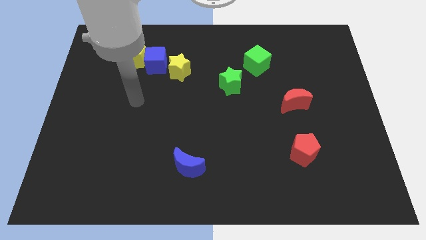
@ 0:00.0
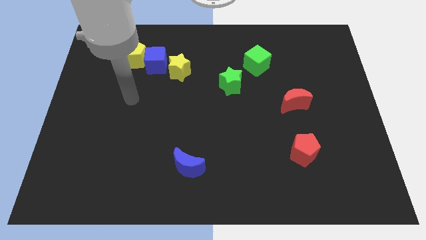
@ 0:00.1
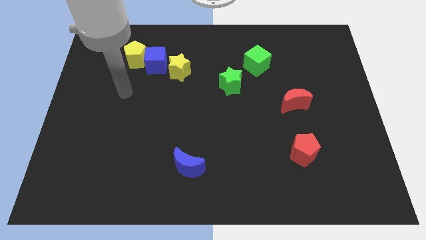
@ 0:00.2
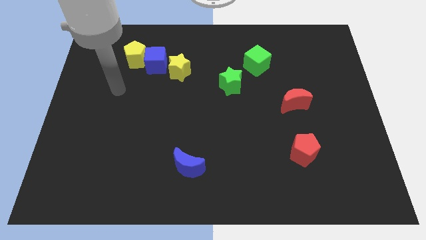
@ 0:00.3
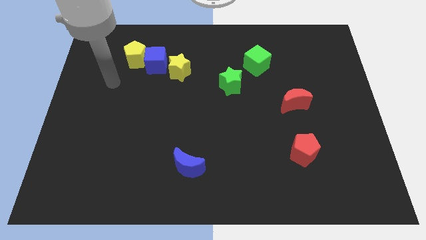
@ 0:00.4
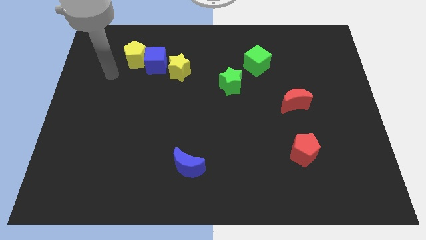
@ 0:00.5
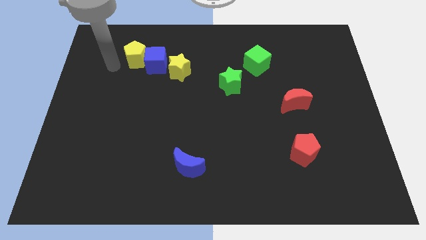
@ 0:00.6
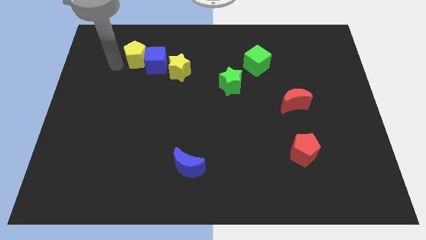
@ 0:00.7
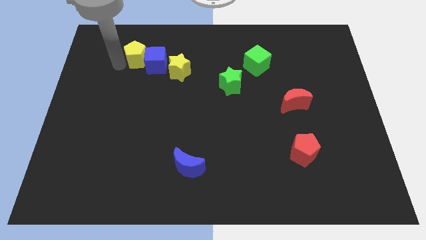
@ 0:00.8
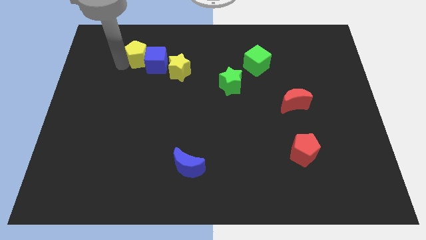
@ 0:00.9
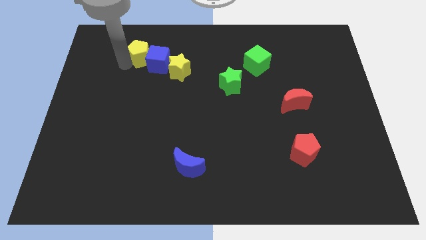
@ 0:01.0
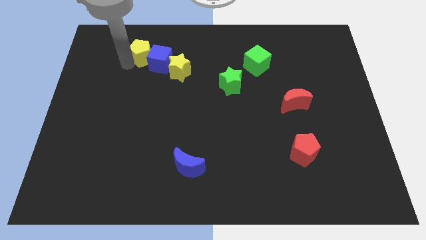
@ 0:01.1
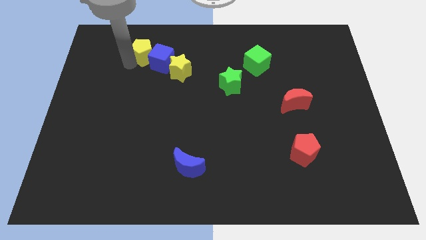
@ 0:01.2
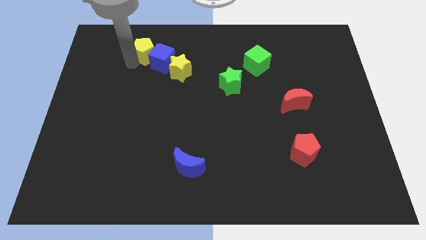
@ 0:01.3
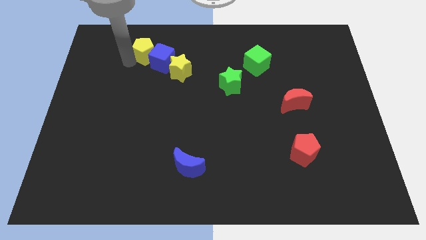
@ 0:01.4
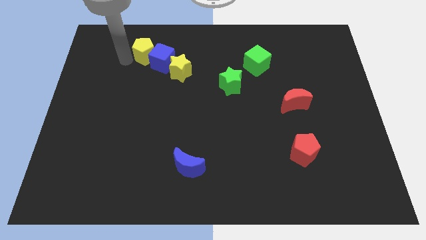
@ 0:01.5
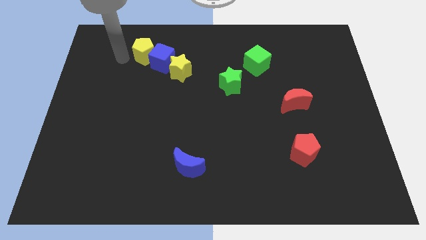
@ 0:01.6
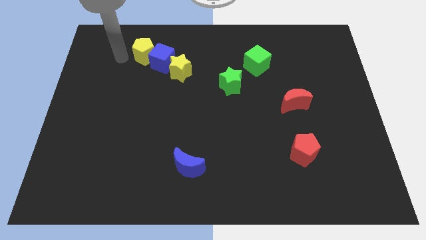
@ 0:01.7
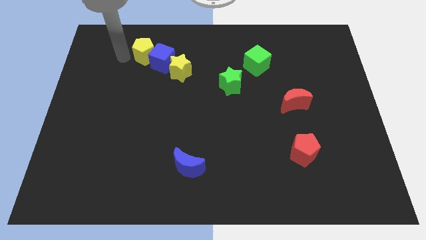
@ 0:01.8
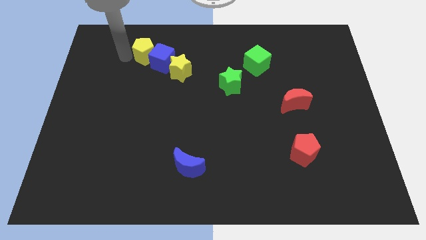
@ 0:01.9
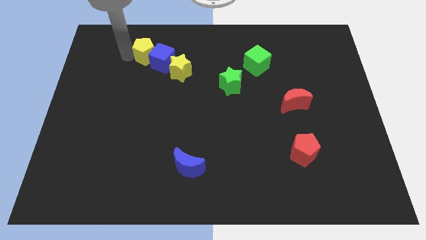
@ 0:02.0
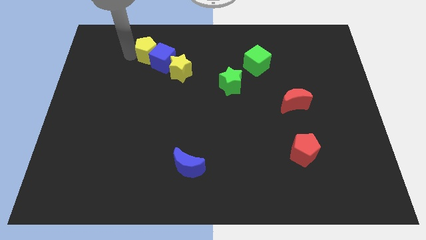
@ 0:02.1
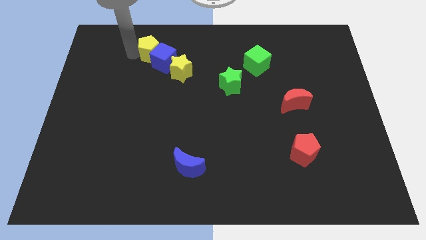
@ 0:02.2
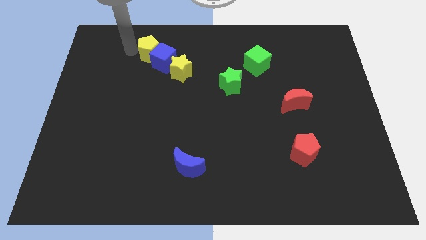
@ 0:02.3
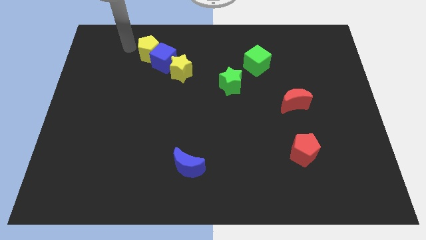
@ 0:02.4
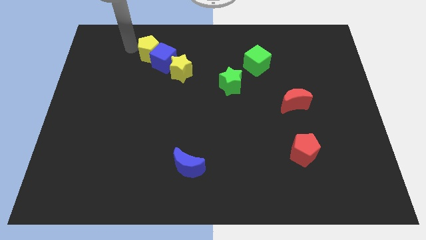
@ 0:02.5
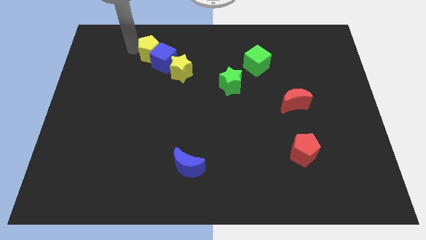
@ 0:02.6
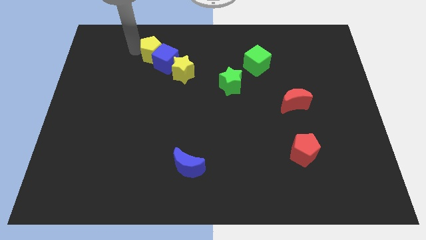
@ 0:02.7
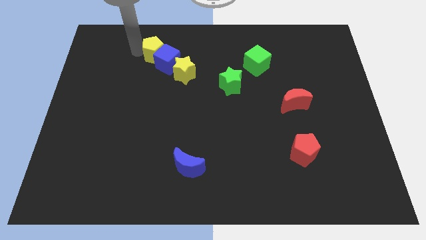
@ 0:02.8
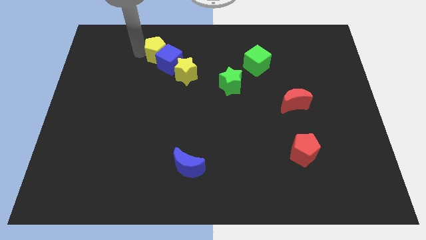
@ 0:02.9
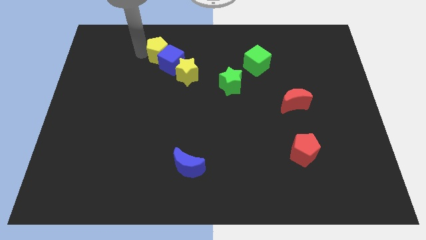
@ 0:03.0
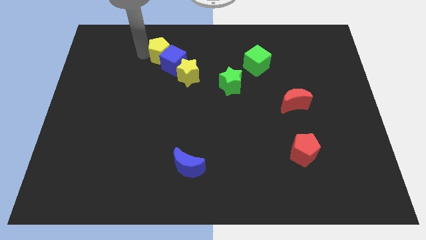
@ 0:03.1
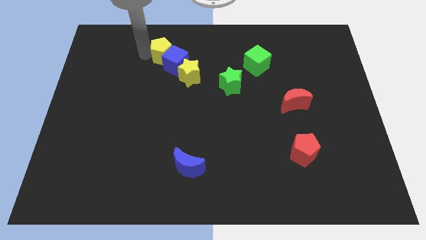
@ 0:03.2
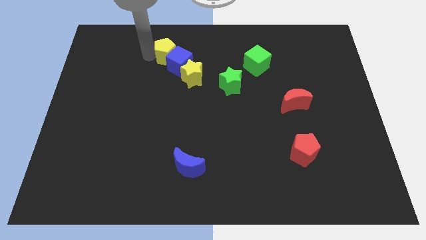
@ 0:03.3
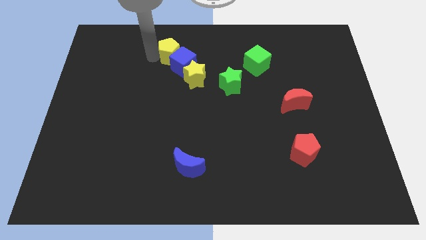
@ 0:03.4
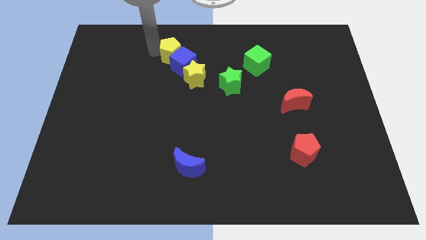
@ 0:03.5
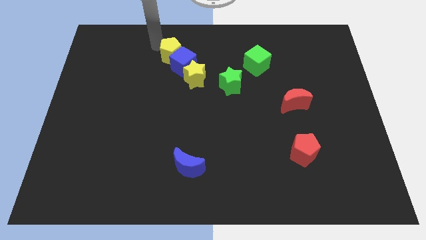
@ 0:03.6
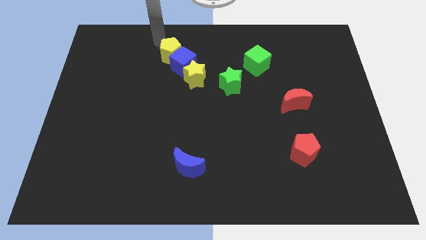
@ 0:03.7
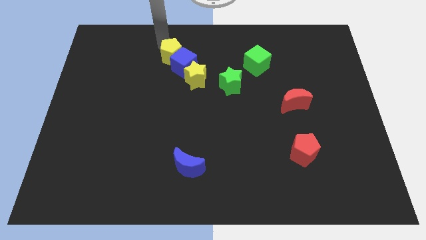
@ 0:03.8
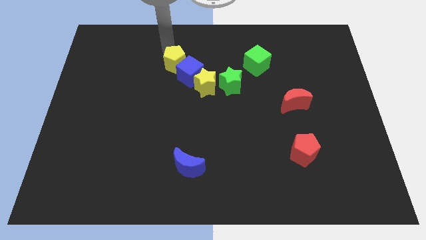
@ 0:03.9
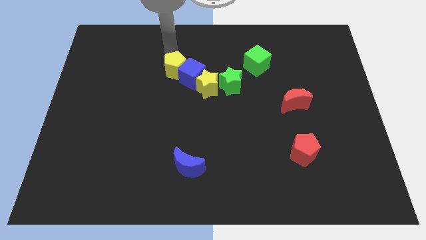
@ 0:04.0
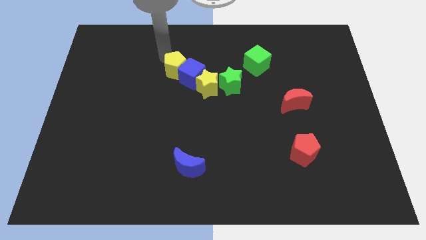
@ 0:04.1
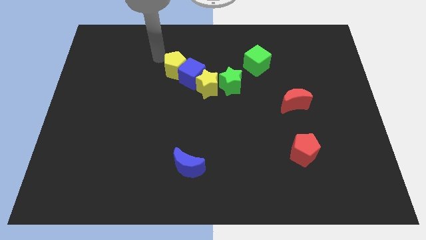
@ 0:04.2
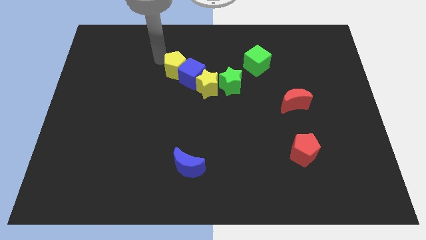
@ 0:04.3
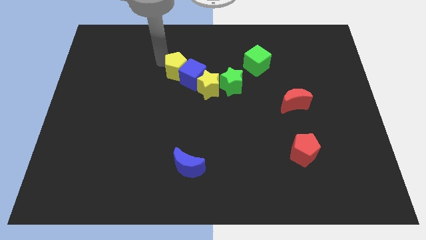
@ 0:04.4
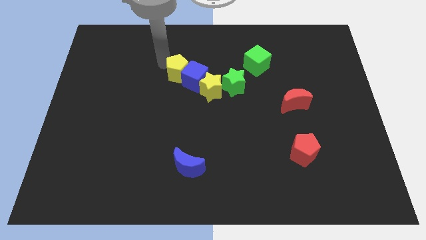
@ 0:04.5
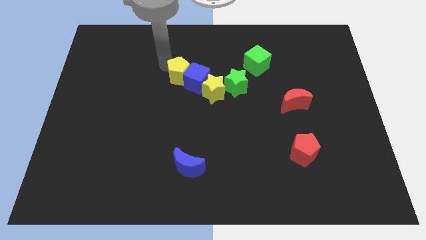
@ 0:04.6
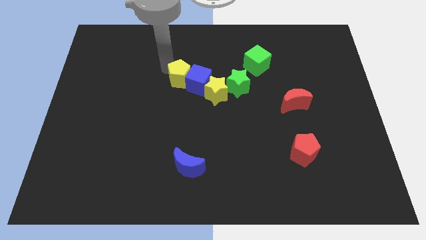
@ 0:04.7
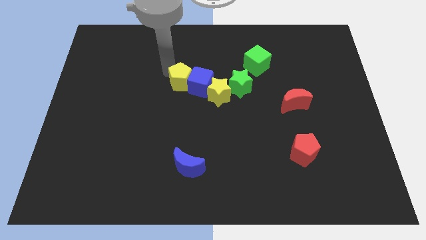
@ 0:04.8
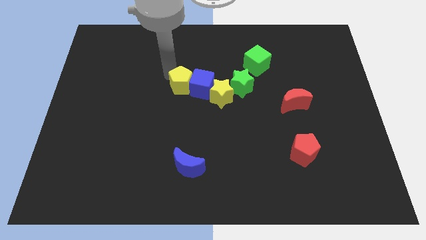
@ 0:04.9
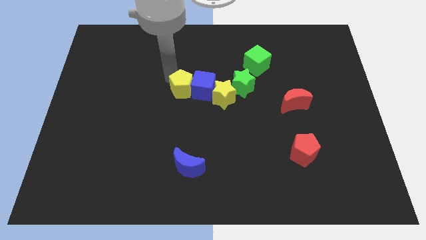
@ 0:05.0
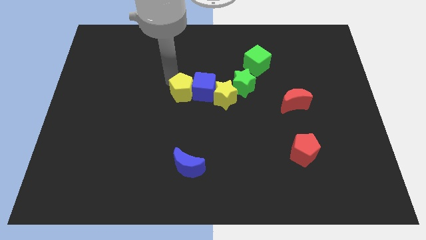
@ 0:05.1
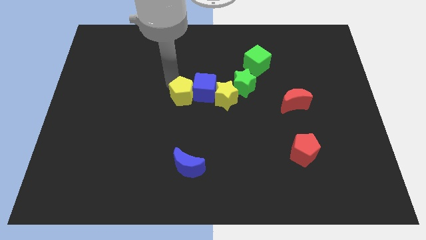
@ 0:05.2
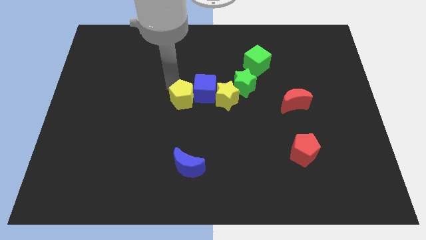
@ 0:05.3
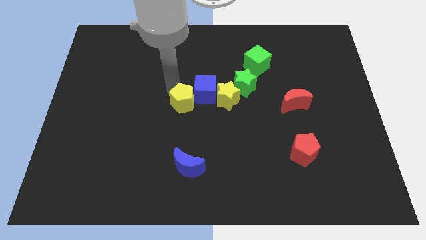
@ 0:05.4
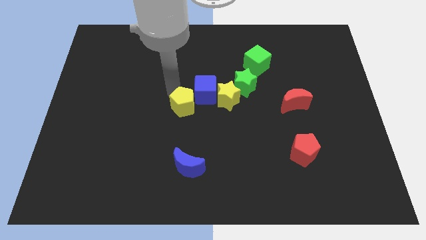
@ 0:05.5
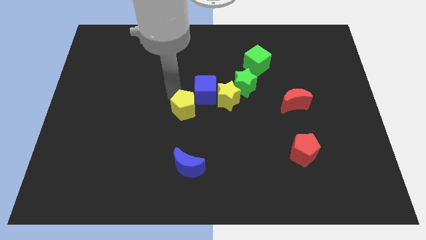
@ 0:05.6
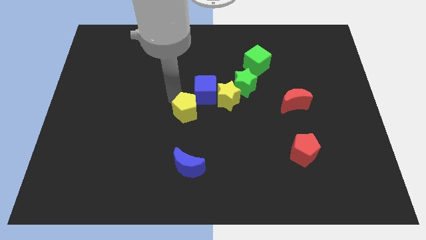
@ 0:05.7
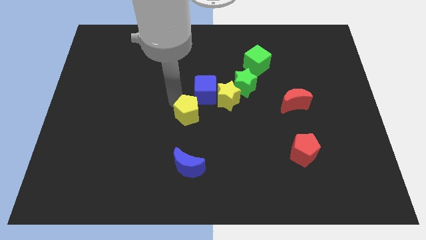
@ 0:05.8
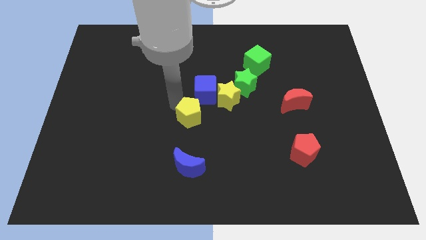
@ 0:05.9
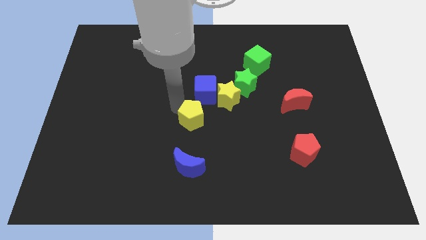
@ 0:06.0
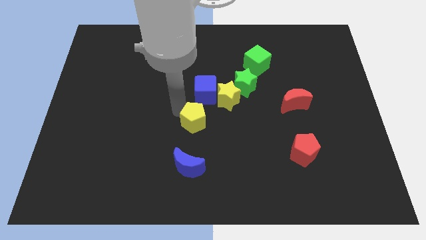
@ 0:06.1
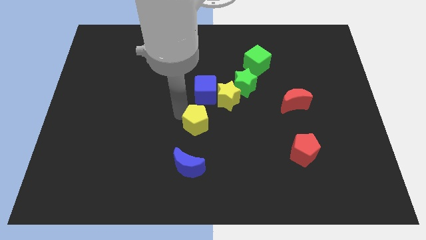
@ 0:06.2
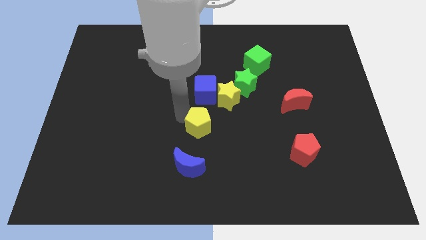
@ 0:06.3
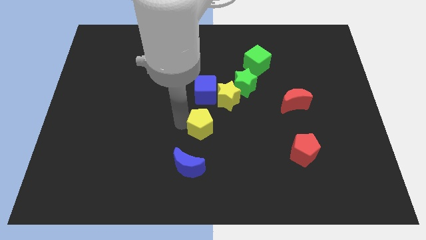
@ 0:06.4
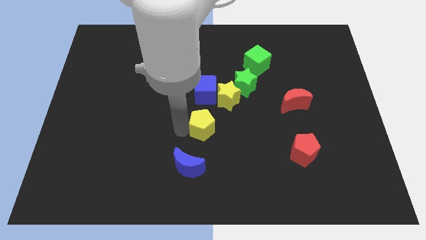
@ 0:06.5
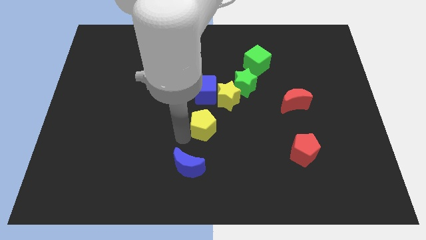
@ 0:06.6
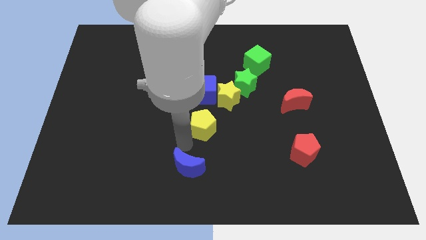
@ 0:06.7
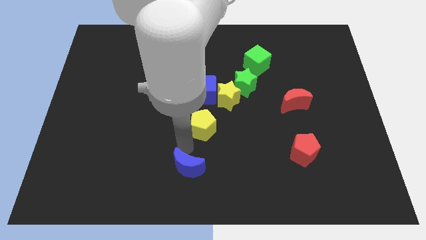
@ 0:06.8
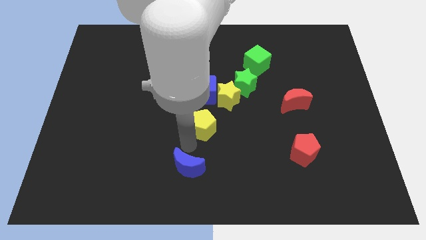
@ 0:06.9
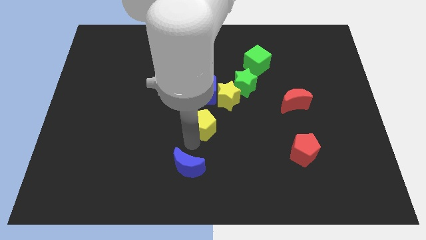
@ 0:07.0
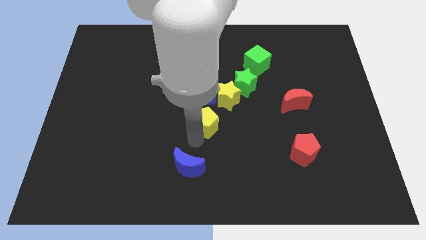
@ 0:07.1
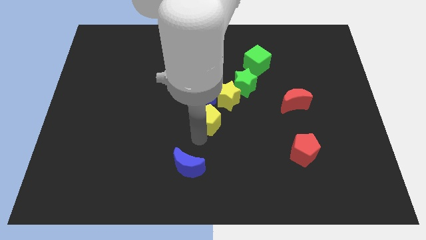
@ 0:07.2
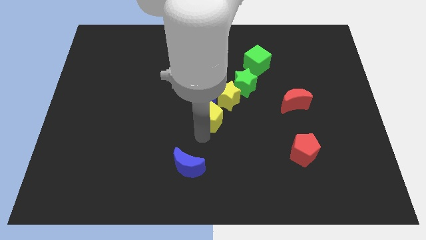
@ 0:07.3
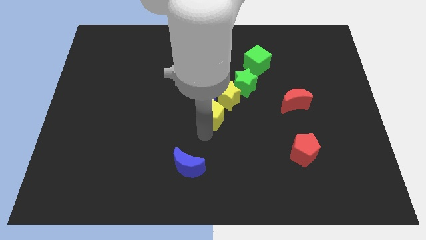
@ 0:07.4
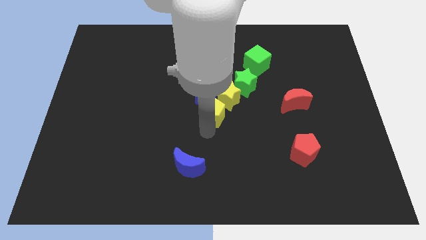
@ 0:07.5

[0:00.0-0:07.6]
move the yellow pentagon towards the yellow star
